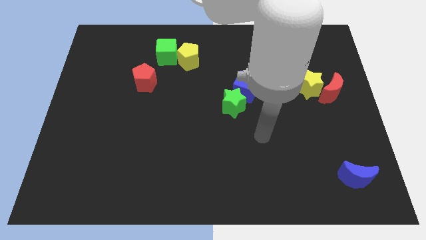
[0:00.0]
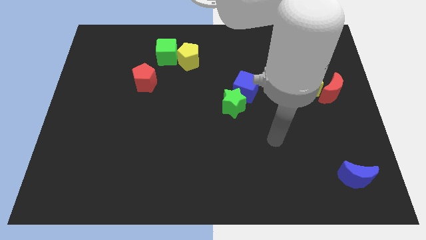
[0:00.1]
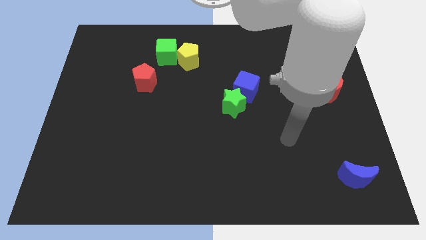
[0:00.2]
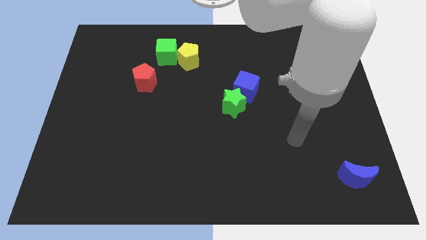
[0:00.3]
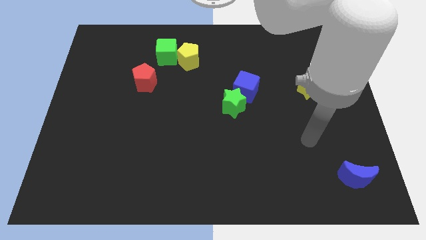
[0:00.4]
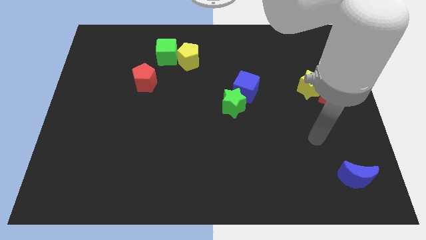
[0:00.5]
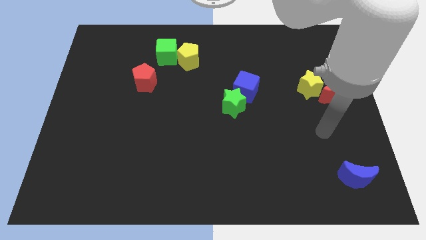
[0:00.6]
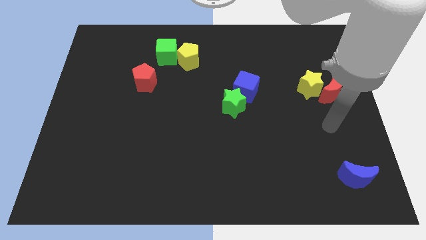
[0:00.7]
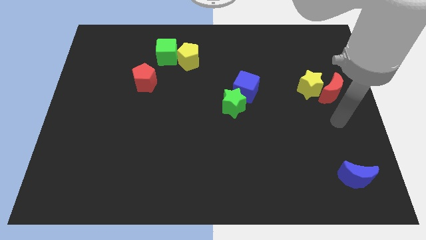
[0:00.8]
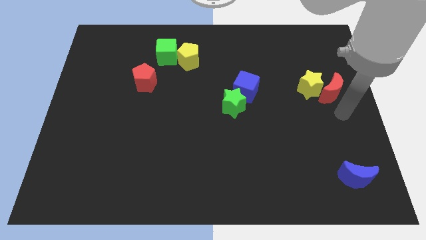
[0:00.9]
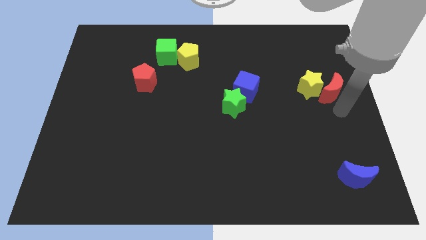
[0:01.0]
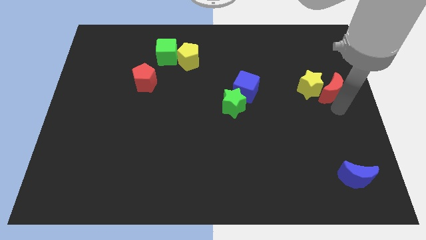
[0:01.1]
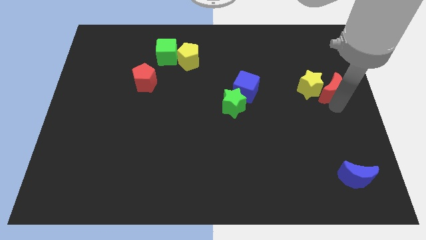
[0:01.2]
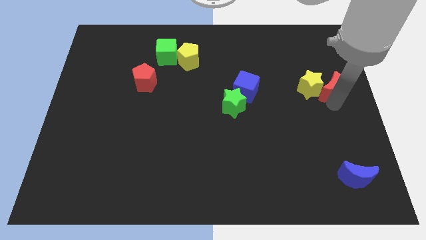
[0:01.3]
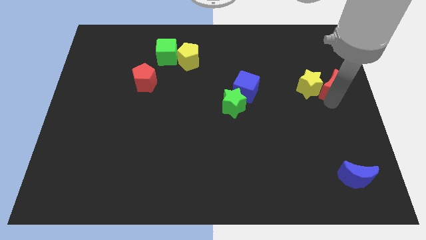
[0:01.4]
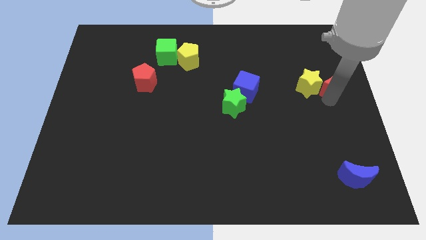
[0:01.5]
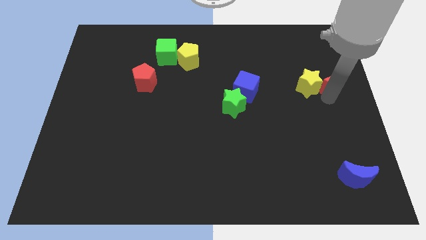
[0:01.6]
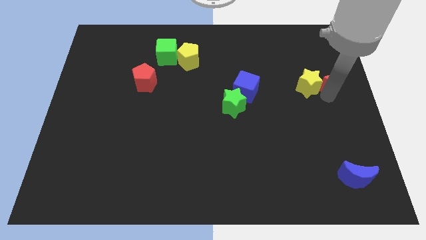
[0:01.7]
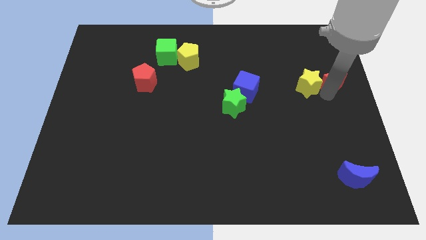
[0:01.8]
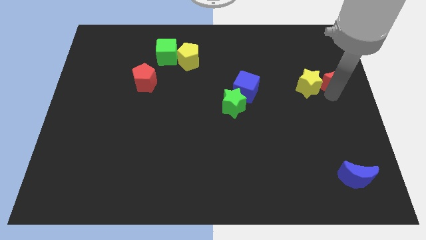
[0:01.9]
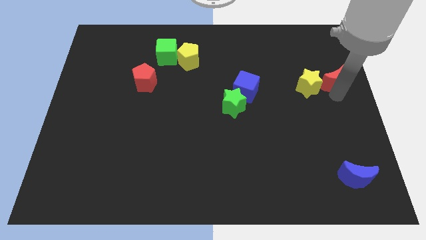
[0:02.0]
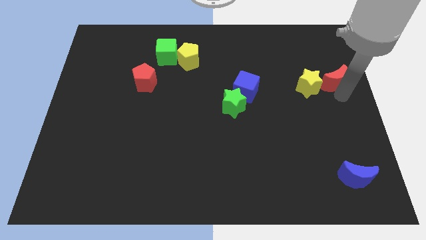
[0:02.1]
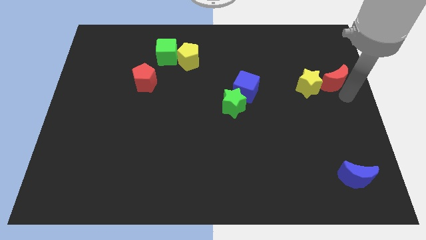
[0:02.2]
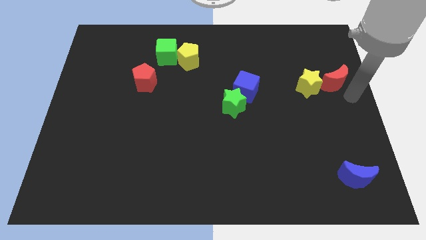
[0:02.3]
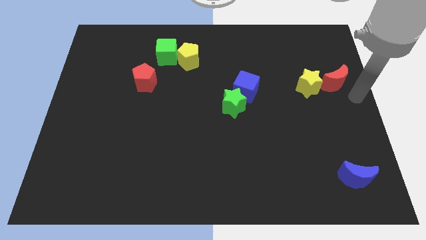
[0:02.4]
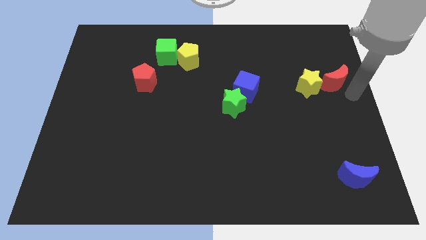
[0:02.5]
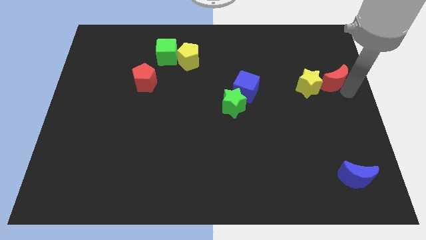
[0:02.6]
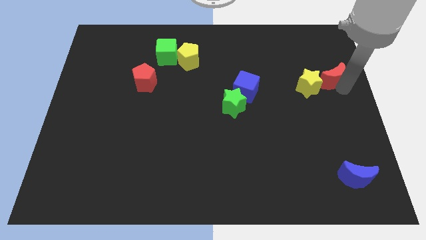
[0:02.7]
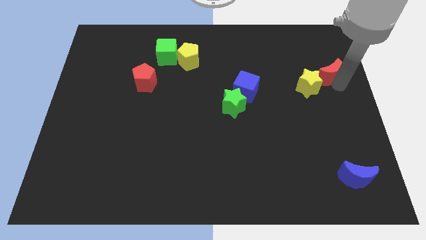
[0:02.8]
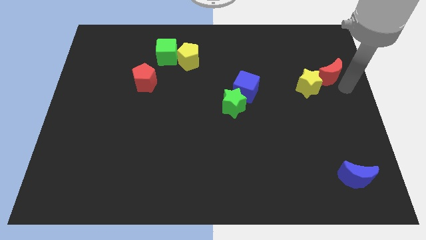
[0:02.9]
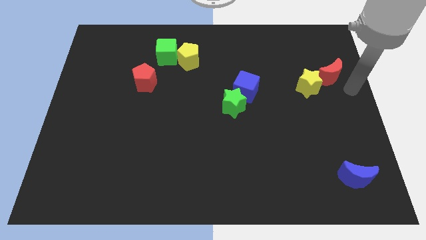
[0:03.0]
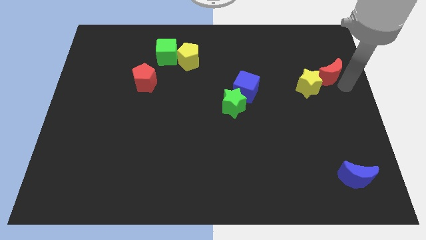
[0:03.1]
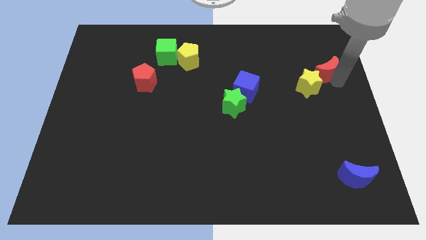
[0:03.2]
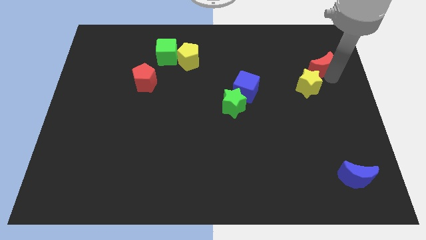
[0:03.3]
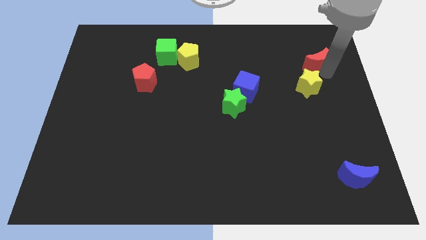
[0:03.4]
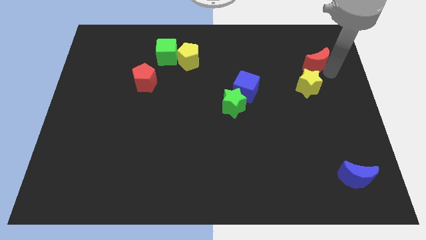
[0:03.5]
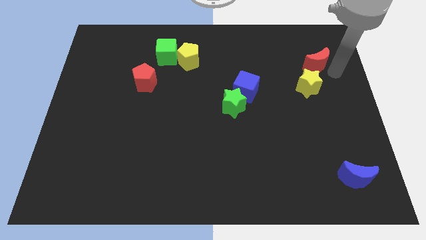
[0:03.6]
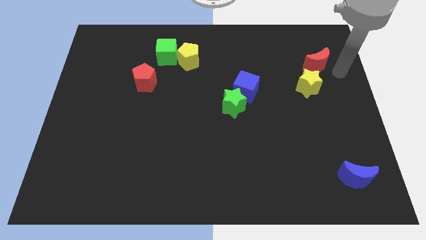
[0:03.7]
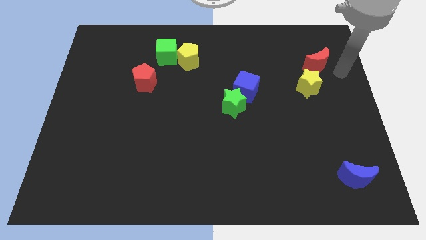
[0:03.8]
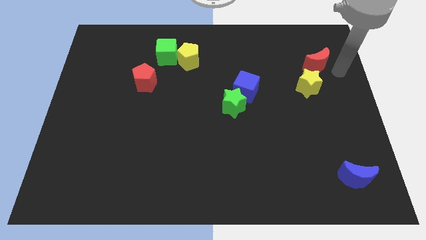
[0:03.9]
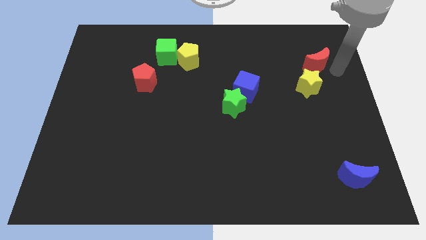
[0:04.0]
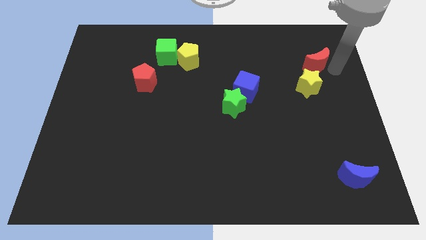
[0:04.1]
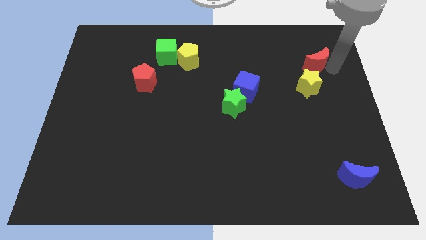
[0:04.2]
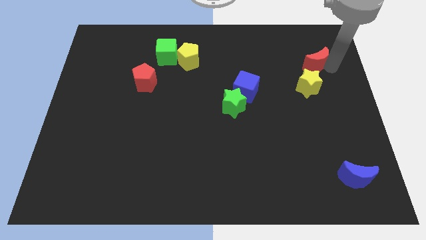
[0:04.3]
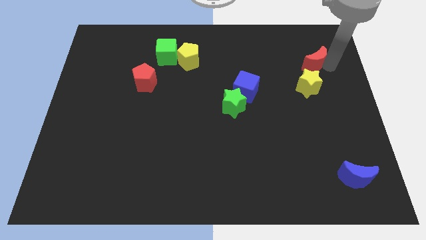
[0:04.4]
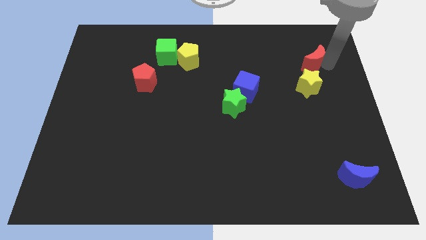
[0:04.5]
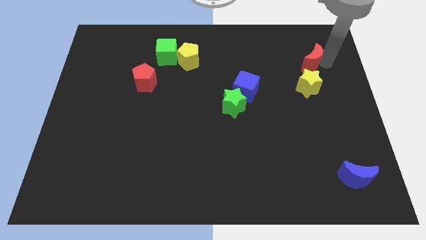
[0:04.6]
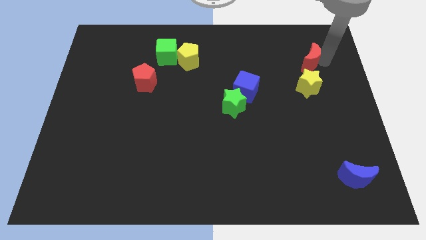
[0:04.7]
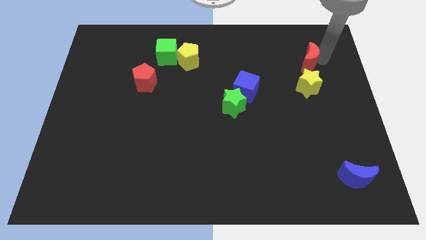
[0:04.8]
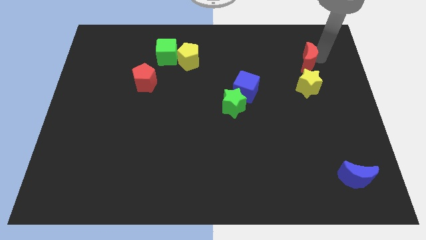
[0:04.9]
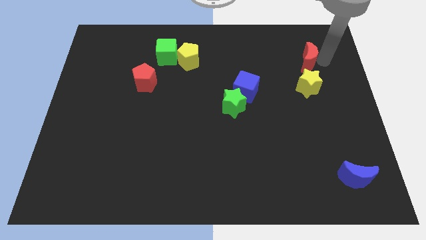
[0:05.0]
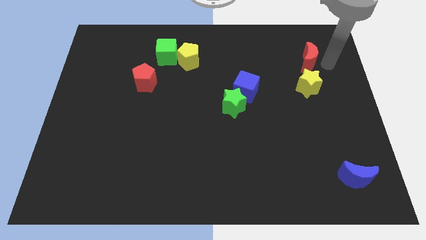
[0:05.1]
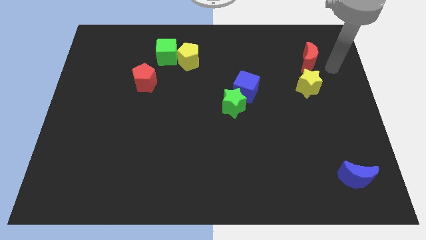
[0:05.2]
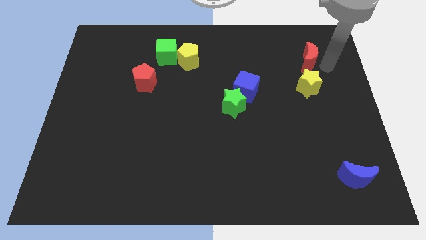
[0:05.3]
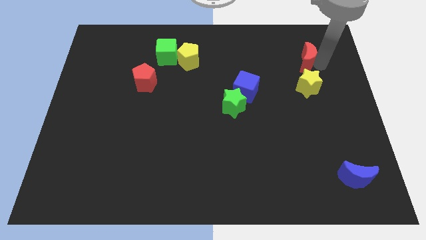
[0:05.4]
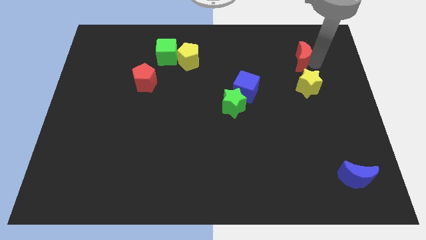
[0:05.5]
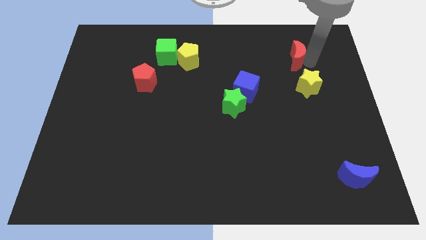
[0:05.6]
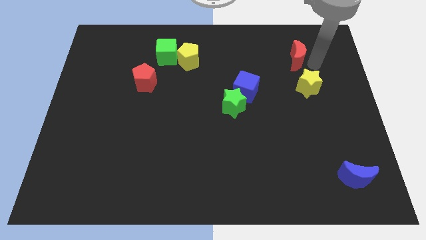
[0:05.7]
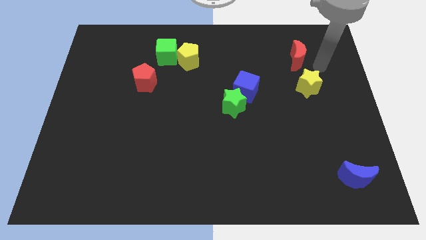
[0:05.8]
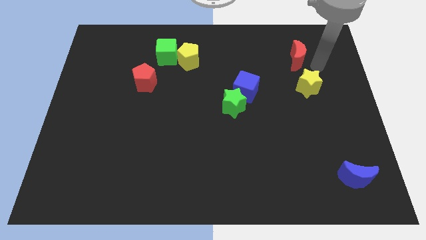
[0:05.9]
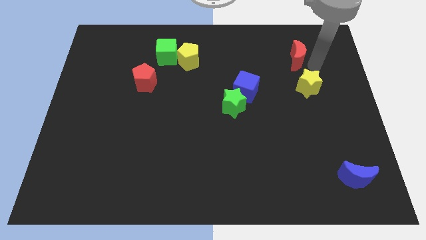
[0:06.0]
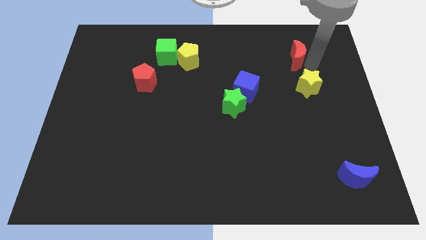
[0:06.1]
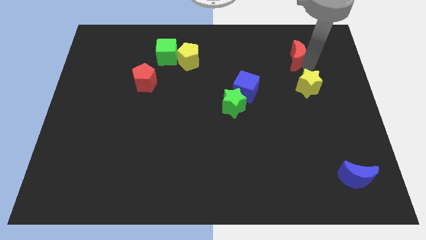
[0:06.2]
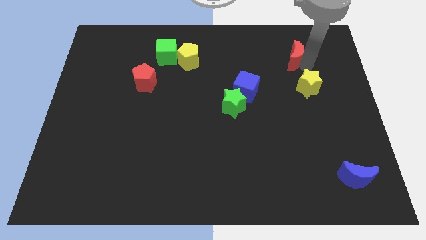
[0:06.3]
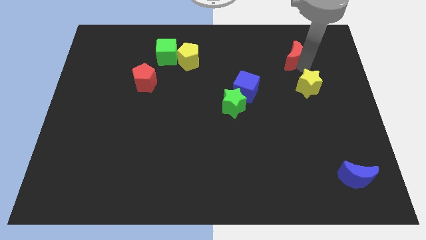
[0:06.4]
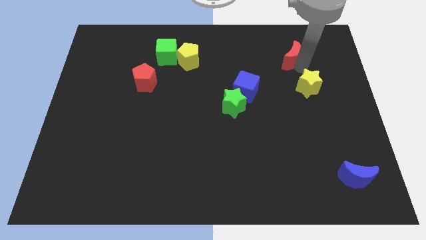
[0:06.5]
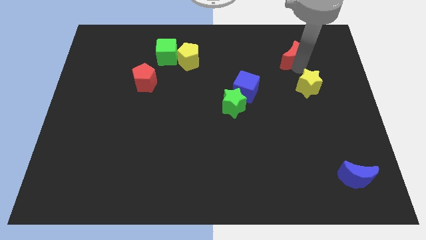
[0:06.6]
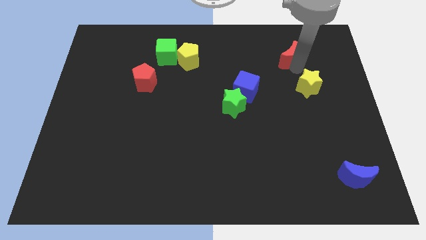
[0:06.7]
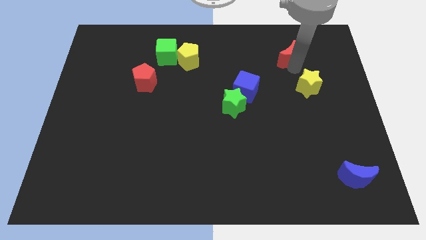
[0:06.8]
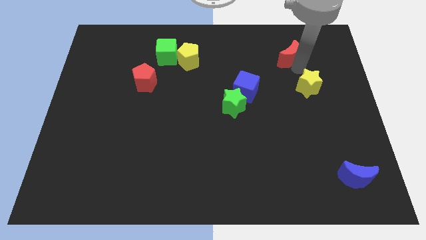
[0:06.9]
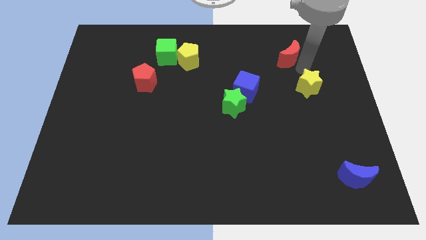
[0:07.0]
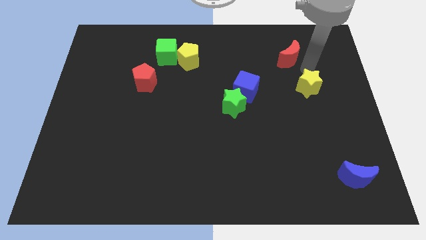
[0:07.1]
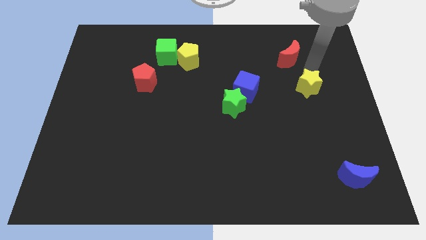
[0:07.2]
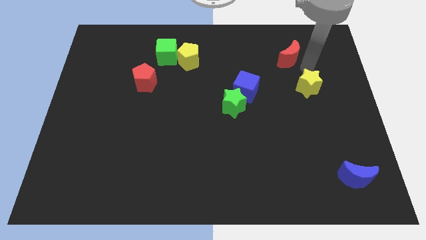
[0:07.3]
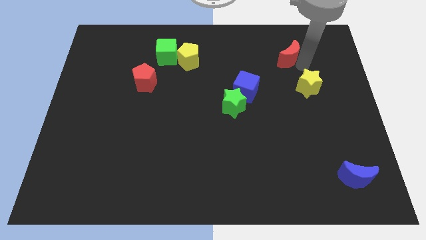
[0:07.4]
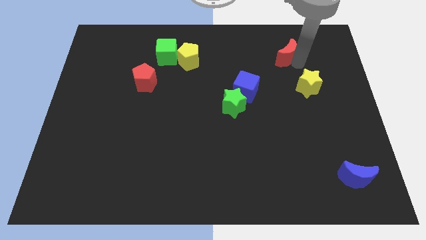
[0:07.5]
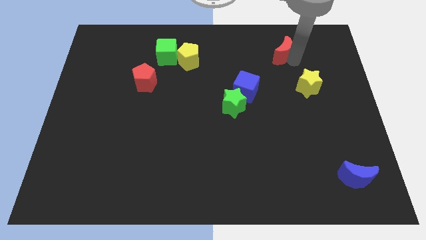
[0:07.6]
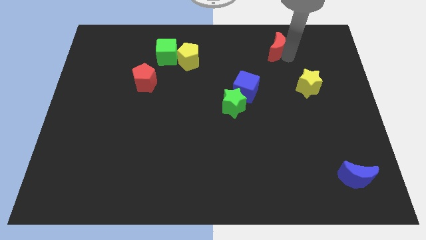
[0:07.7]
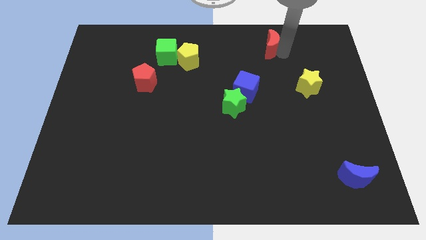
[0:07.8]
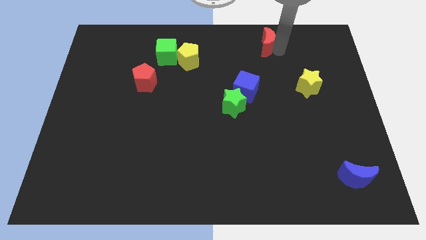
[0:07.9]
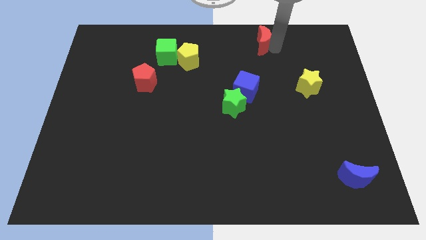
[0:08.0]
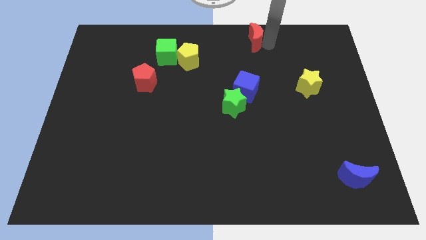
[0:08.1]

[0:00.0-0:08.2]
move the red moon to the top side
